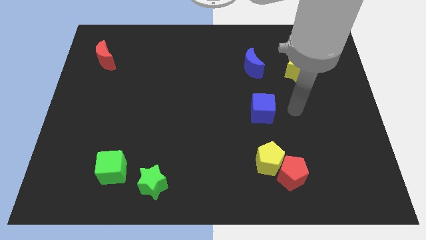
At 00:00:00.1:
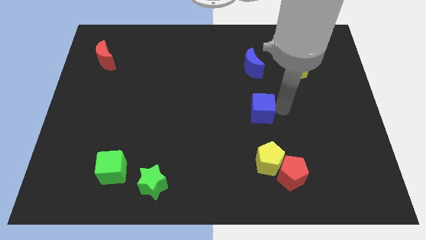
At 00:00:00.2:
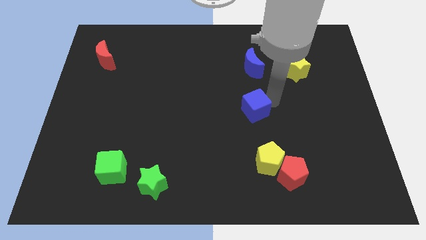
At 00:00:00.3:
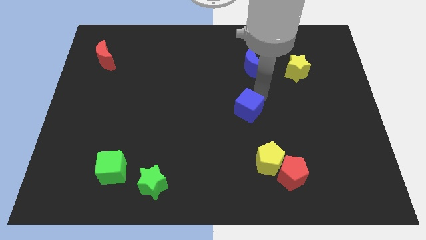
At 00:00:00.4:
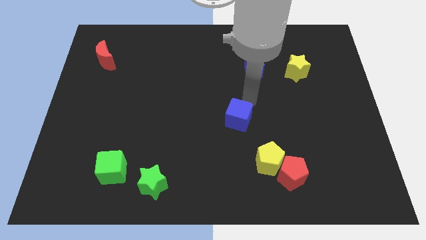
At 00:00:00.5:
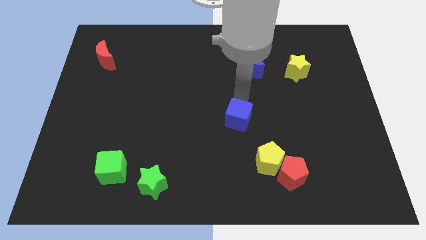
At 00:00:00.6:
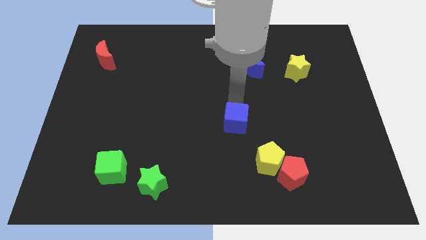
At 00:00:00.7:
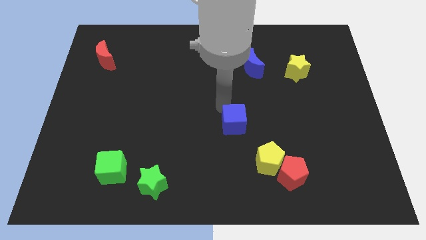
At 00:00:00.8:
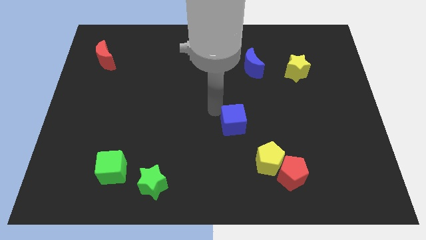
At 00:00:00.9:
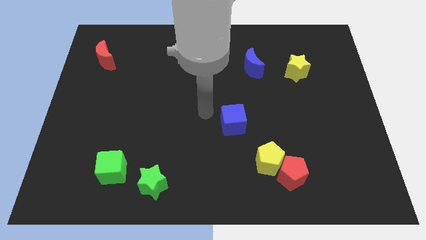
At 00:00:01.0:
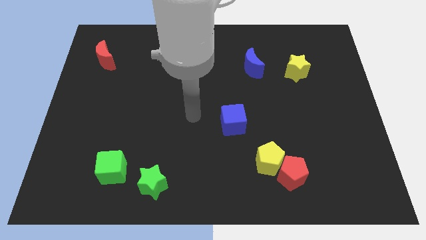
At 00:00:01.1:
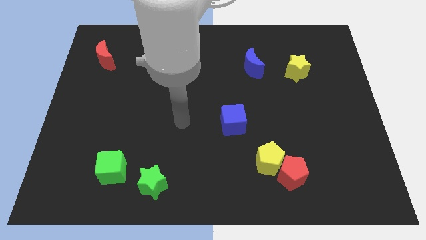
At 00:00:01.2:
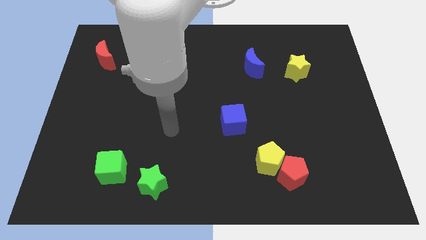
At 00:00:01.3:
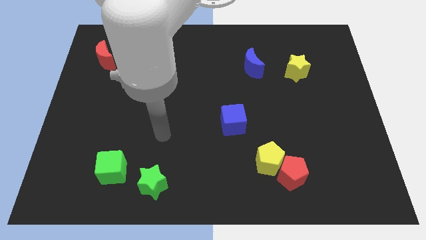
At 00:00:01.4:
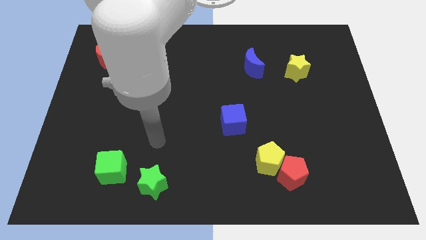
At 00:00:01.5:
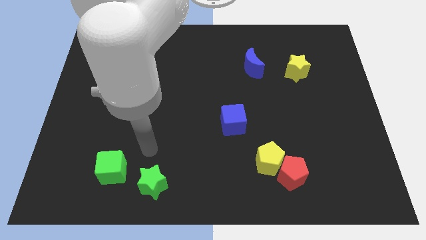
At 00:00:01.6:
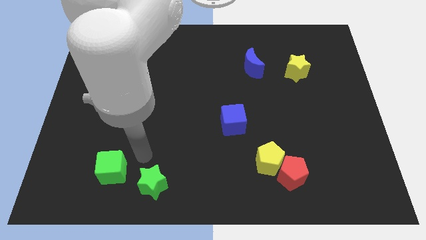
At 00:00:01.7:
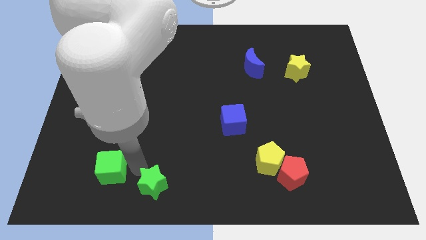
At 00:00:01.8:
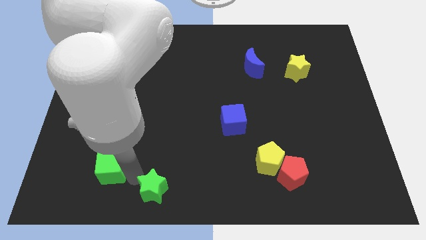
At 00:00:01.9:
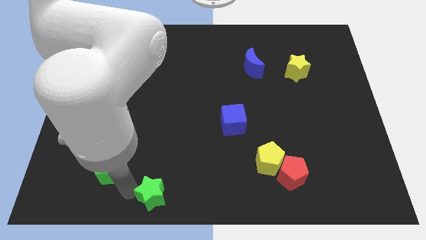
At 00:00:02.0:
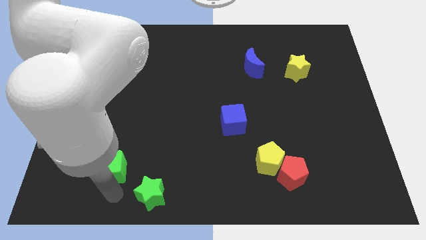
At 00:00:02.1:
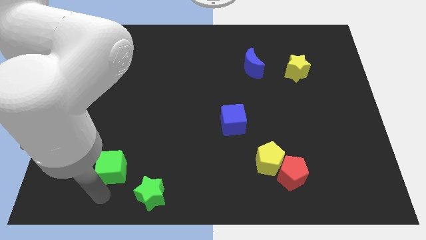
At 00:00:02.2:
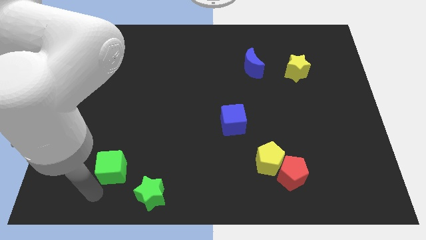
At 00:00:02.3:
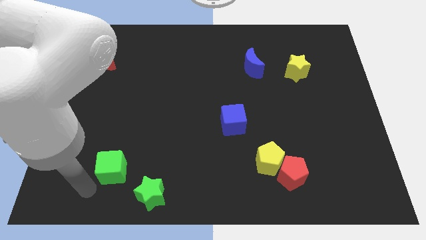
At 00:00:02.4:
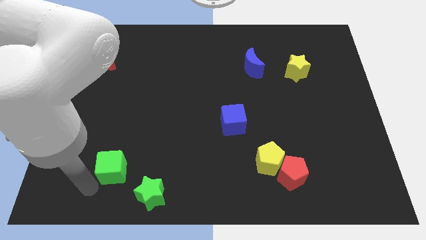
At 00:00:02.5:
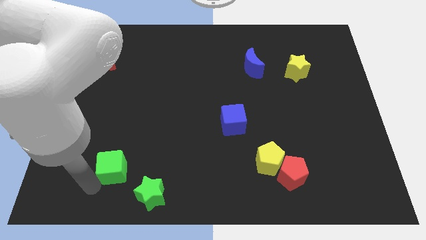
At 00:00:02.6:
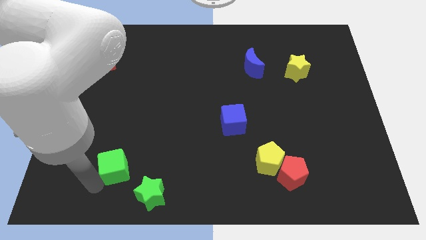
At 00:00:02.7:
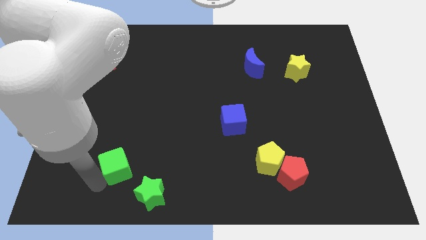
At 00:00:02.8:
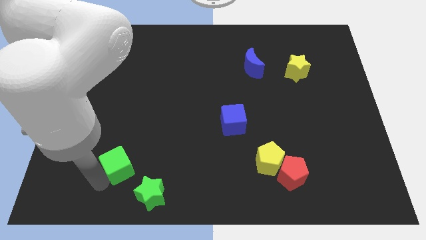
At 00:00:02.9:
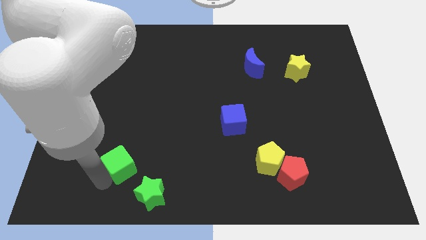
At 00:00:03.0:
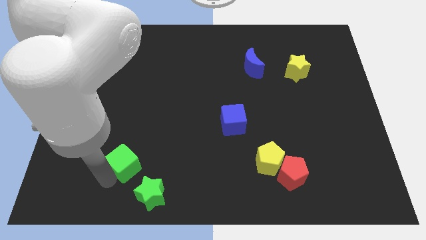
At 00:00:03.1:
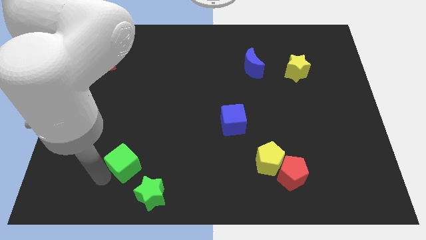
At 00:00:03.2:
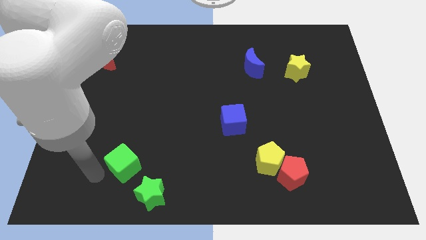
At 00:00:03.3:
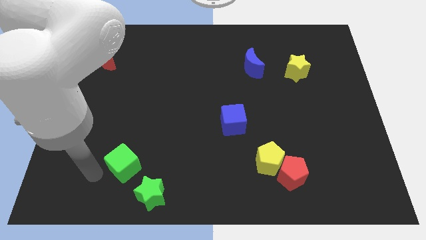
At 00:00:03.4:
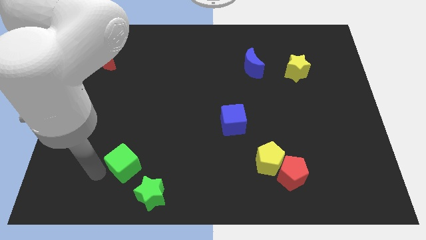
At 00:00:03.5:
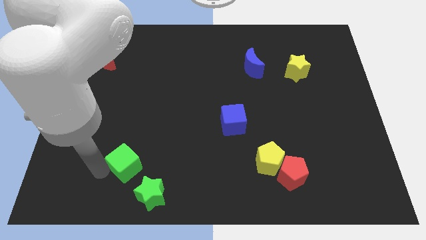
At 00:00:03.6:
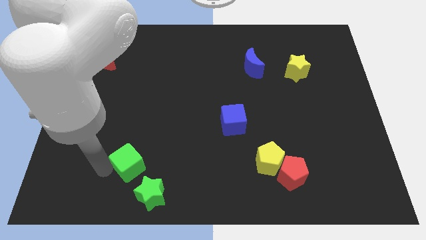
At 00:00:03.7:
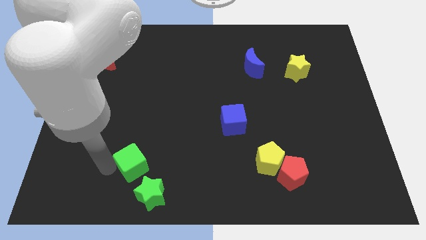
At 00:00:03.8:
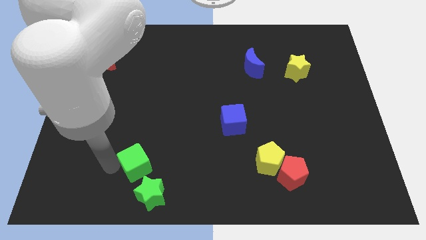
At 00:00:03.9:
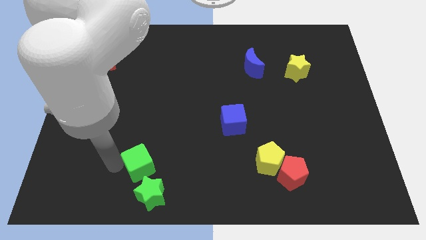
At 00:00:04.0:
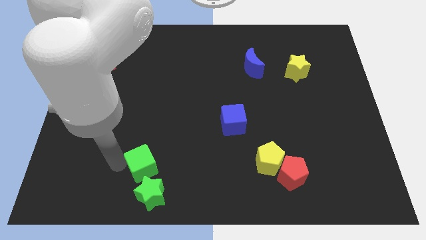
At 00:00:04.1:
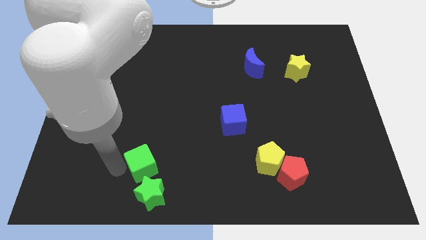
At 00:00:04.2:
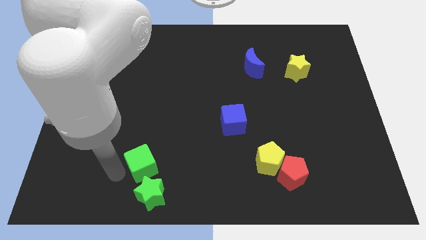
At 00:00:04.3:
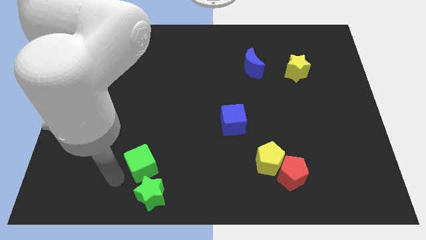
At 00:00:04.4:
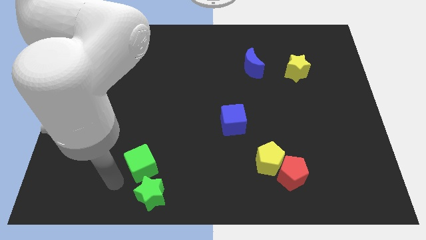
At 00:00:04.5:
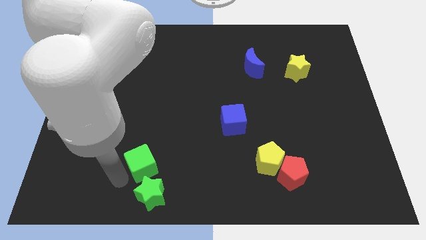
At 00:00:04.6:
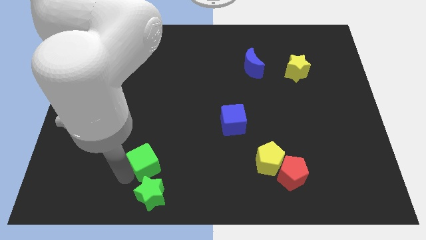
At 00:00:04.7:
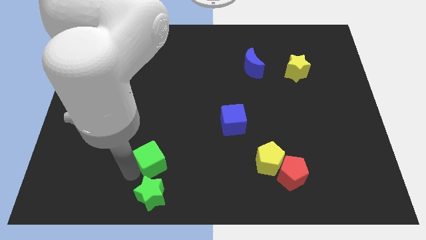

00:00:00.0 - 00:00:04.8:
push the green cube to the right somewhat

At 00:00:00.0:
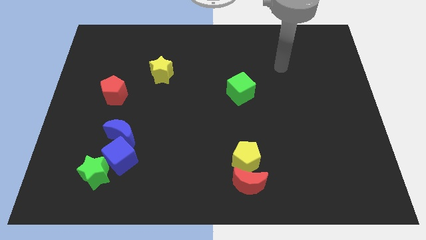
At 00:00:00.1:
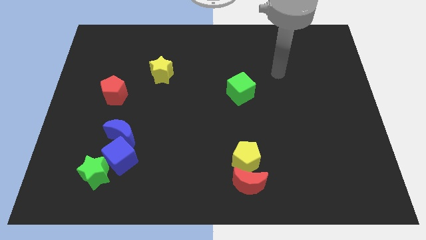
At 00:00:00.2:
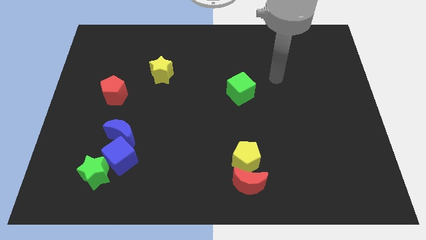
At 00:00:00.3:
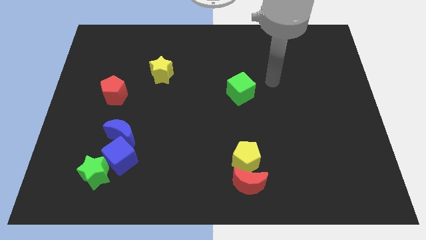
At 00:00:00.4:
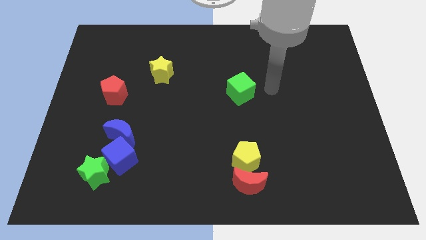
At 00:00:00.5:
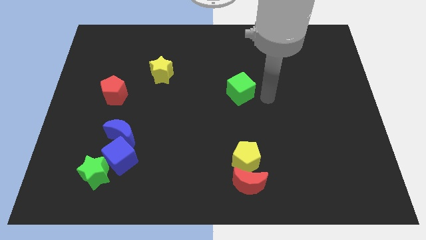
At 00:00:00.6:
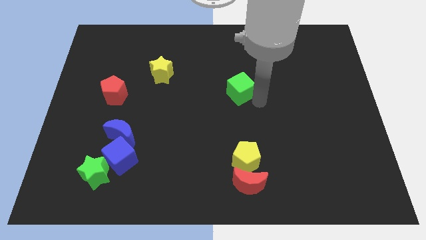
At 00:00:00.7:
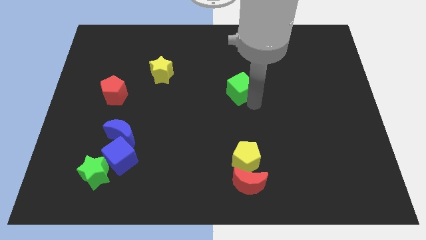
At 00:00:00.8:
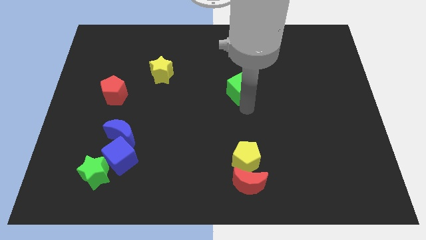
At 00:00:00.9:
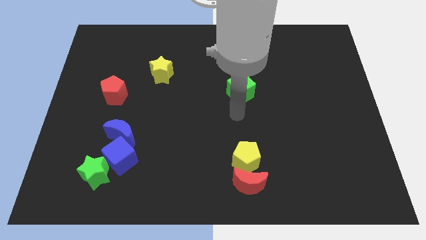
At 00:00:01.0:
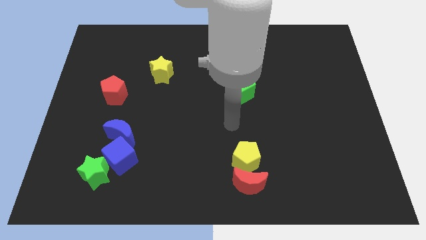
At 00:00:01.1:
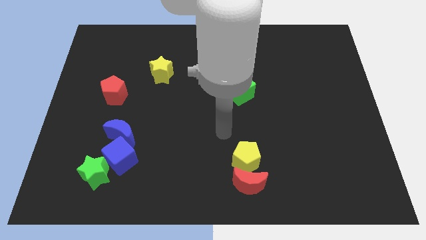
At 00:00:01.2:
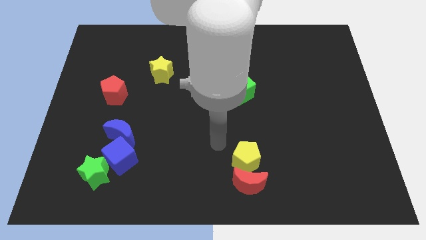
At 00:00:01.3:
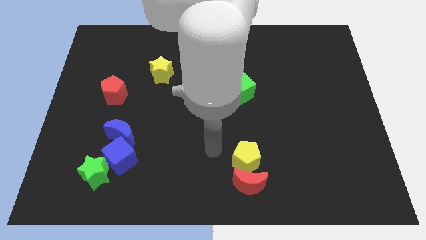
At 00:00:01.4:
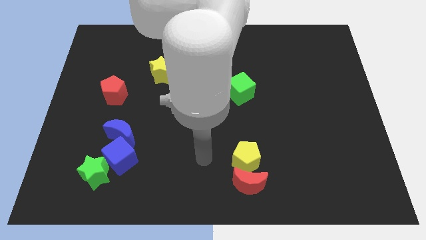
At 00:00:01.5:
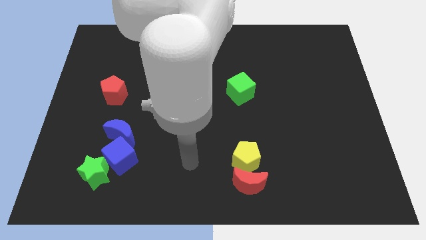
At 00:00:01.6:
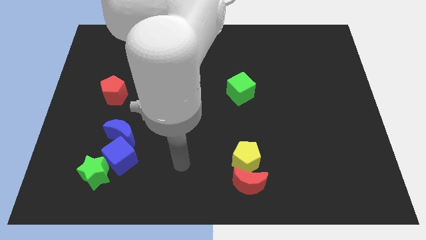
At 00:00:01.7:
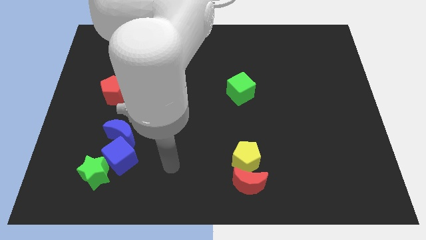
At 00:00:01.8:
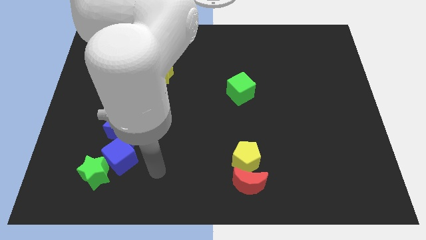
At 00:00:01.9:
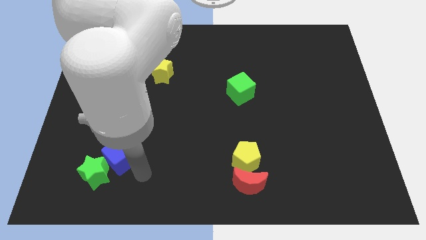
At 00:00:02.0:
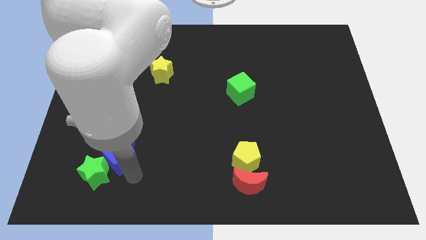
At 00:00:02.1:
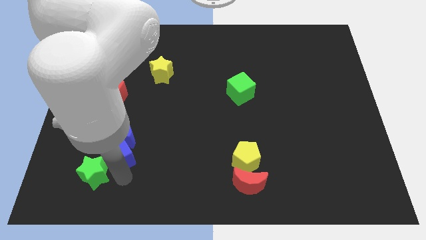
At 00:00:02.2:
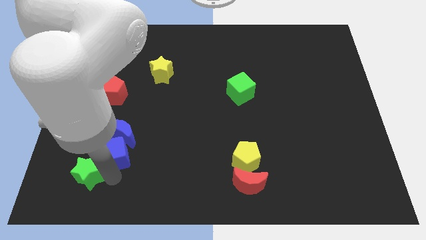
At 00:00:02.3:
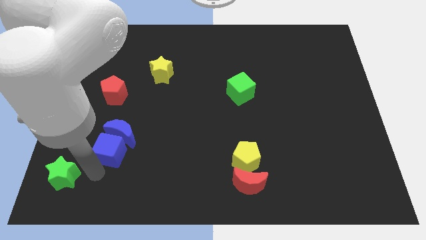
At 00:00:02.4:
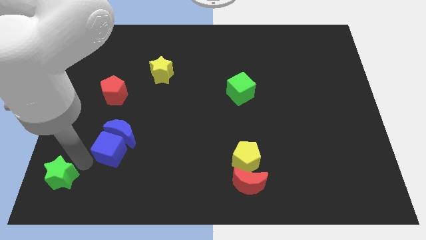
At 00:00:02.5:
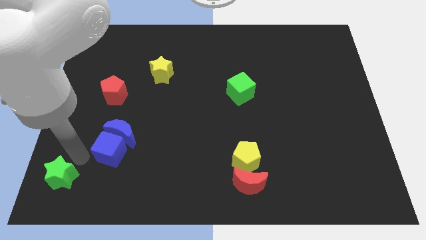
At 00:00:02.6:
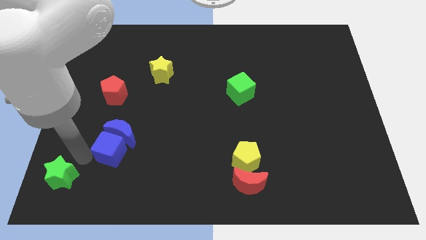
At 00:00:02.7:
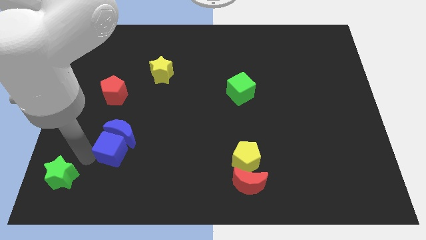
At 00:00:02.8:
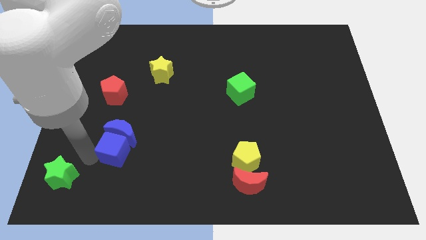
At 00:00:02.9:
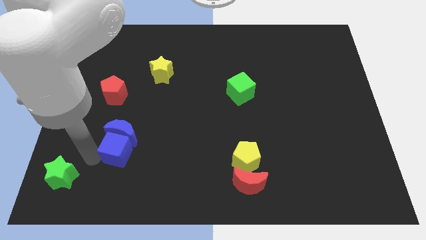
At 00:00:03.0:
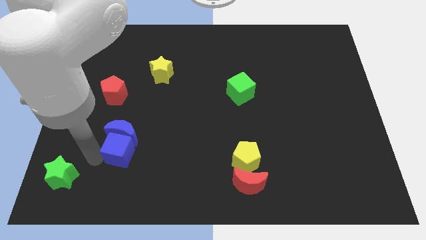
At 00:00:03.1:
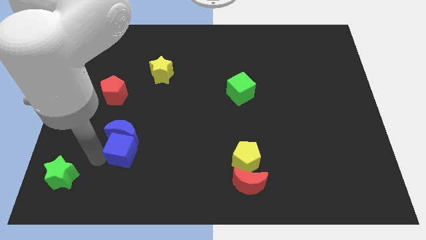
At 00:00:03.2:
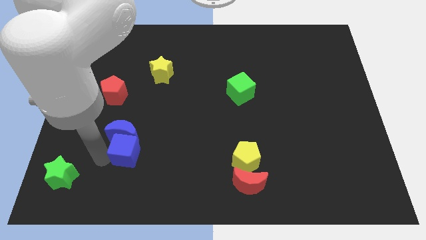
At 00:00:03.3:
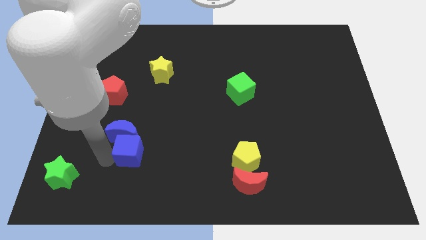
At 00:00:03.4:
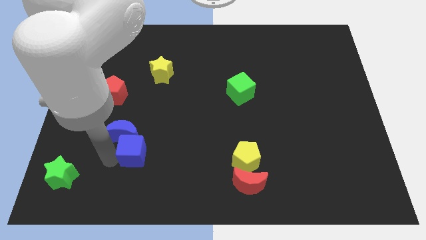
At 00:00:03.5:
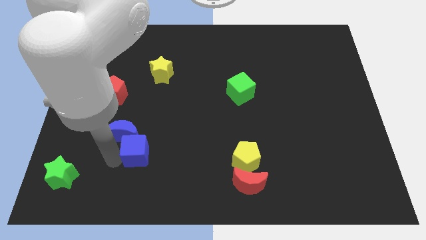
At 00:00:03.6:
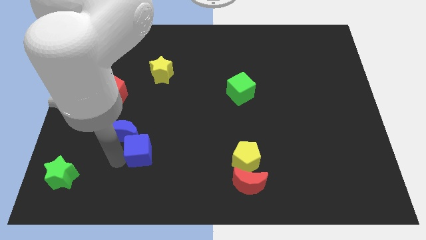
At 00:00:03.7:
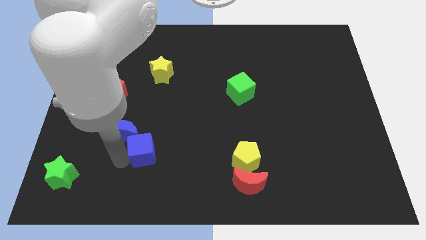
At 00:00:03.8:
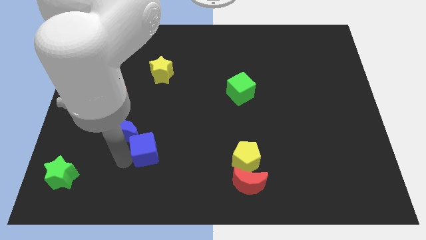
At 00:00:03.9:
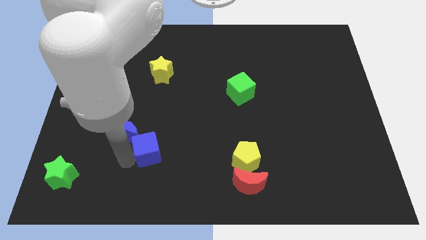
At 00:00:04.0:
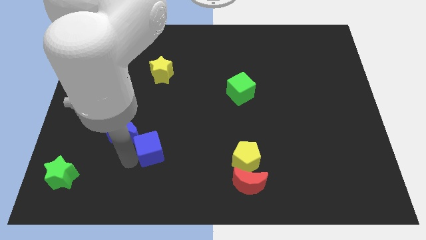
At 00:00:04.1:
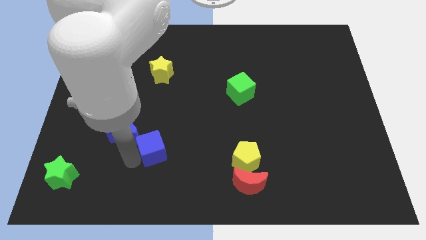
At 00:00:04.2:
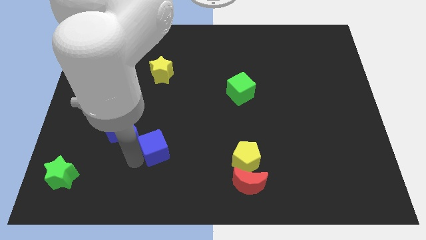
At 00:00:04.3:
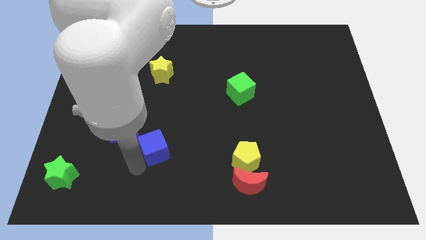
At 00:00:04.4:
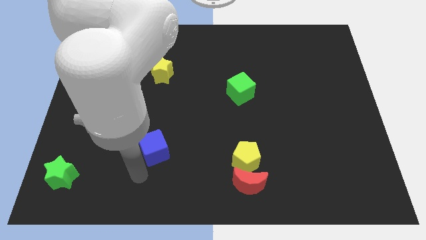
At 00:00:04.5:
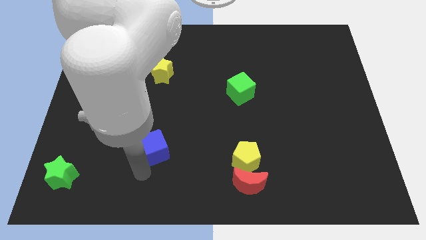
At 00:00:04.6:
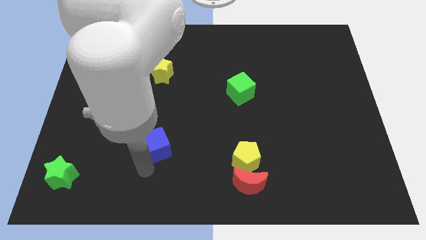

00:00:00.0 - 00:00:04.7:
slightly push the blue cube upwards and right diagonally
